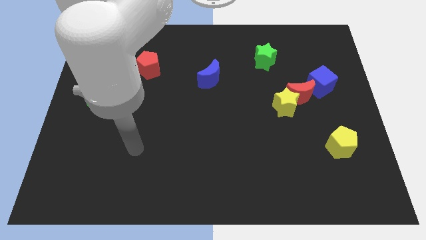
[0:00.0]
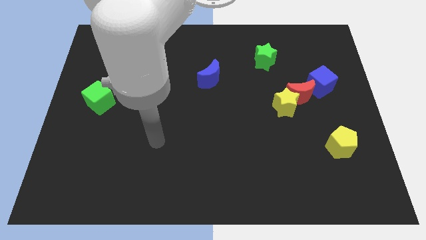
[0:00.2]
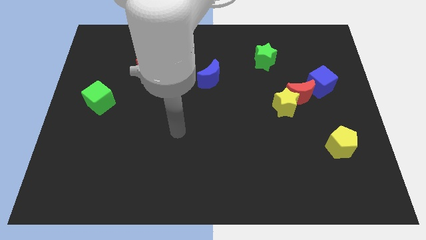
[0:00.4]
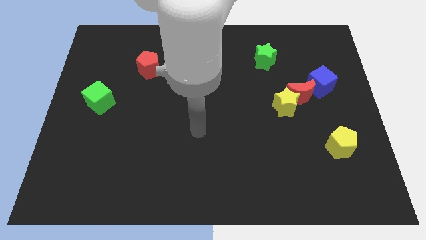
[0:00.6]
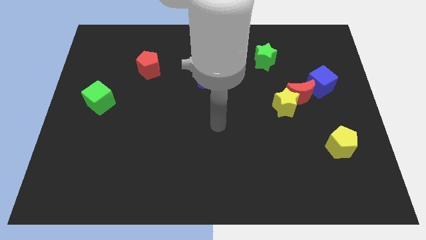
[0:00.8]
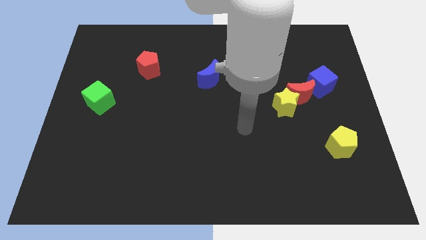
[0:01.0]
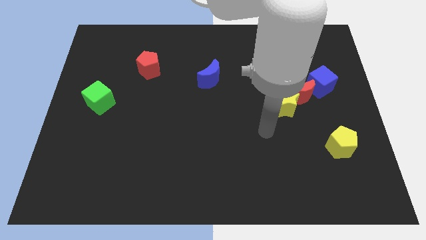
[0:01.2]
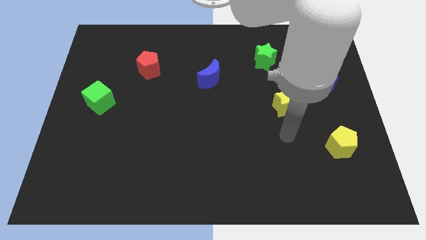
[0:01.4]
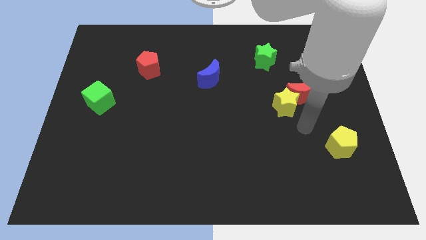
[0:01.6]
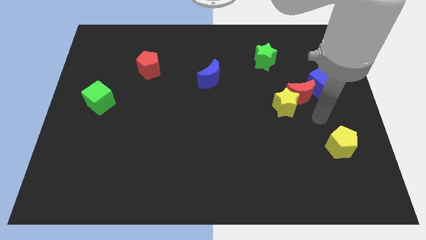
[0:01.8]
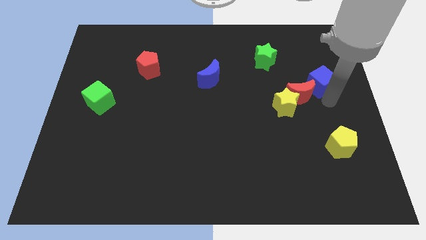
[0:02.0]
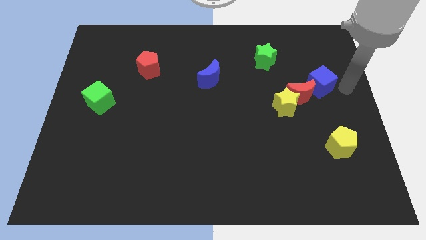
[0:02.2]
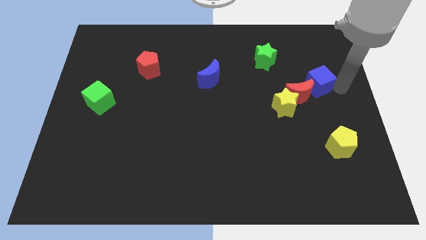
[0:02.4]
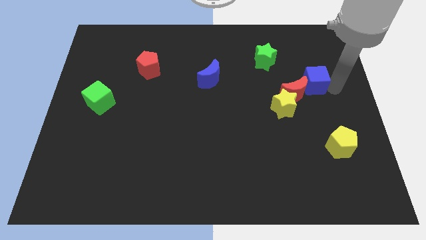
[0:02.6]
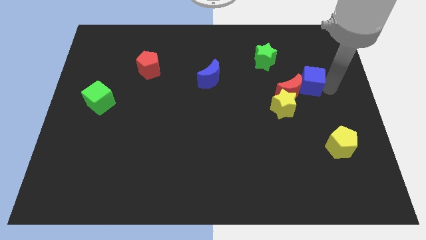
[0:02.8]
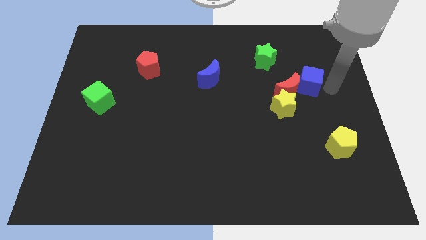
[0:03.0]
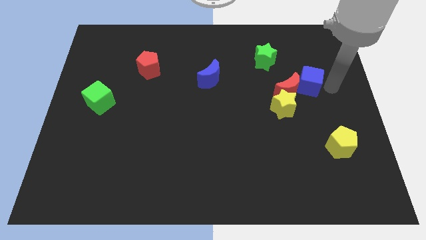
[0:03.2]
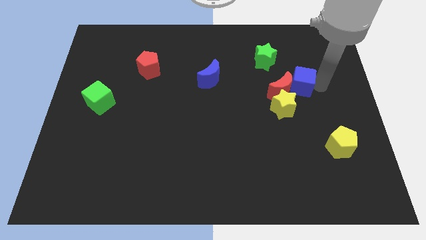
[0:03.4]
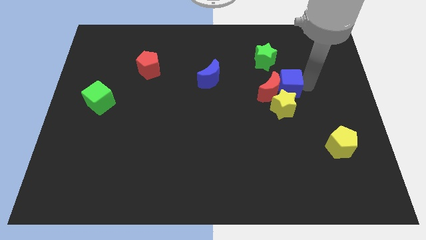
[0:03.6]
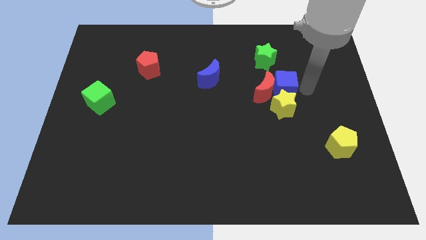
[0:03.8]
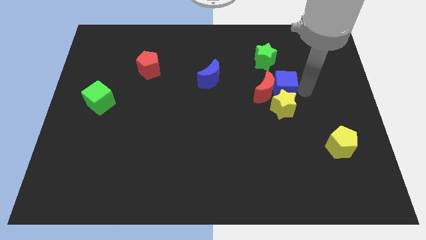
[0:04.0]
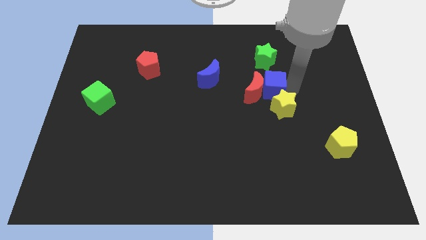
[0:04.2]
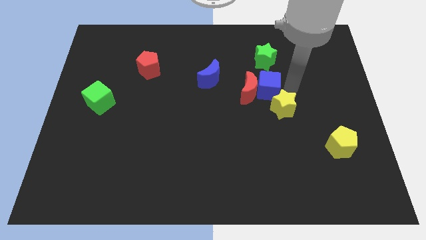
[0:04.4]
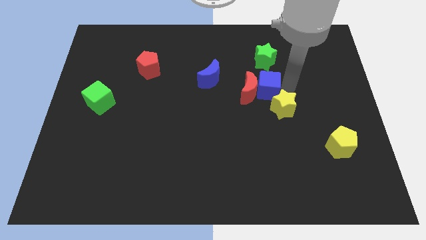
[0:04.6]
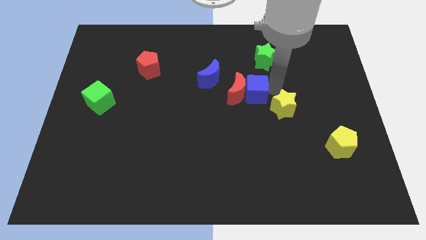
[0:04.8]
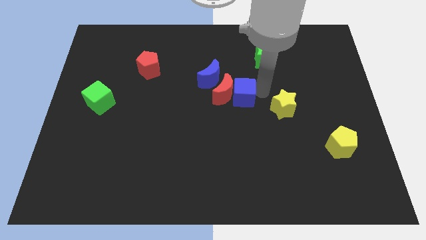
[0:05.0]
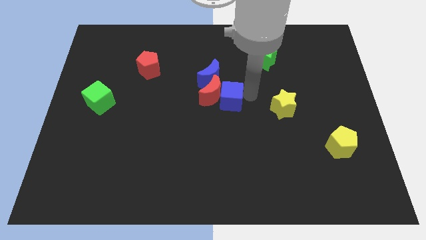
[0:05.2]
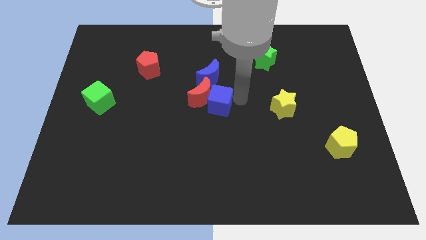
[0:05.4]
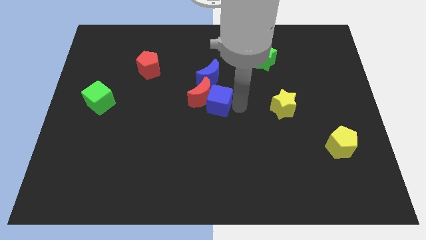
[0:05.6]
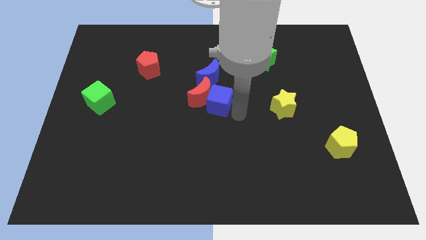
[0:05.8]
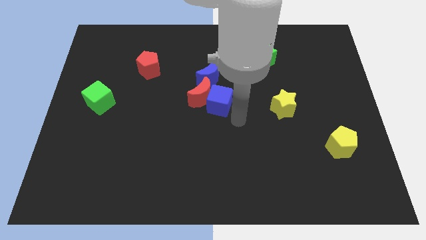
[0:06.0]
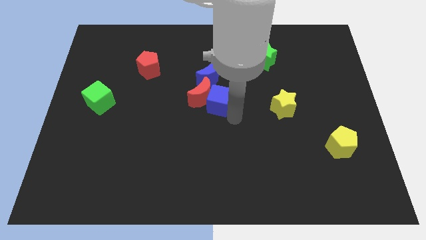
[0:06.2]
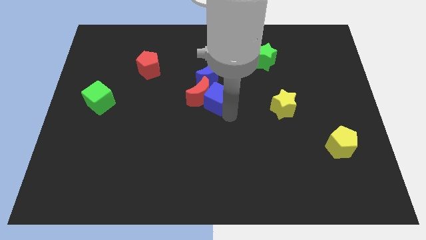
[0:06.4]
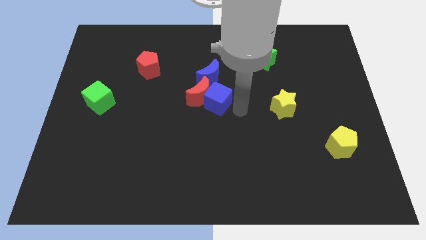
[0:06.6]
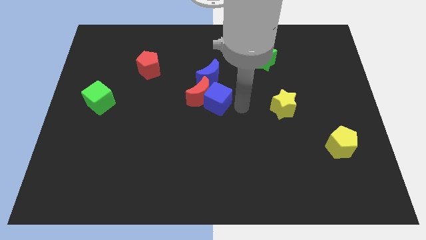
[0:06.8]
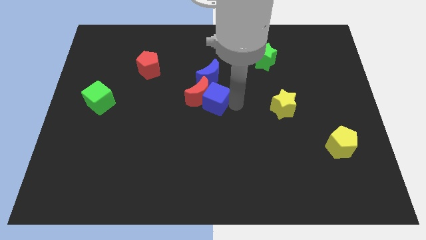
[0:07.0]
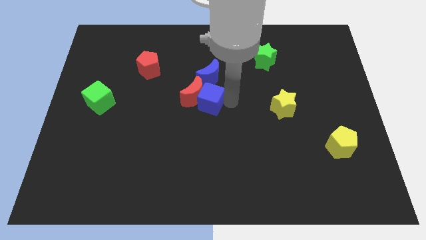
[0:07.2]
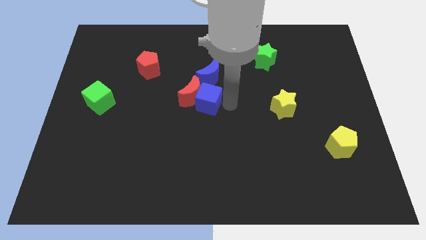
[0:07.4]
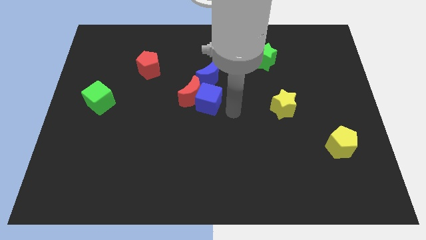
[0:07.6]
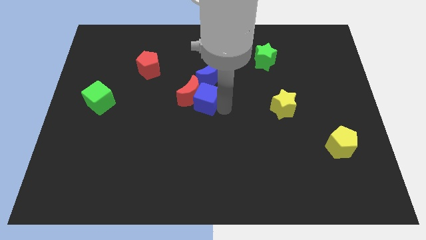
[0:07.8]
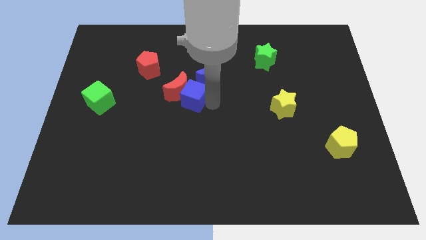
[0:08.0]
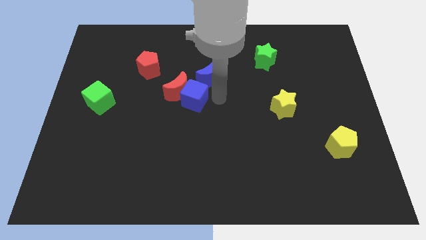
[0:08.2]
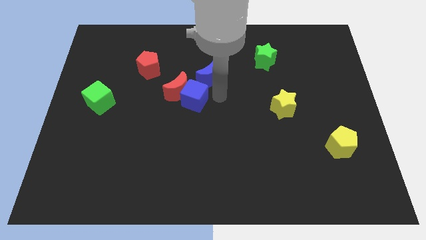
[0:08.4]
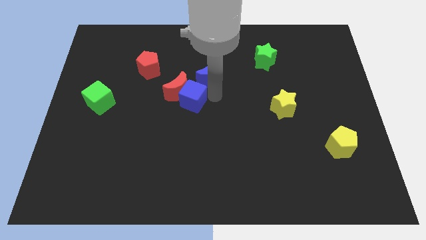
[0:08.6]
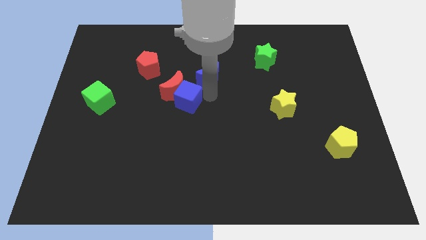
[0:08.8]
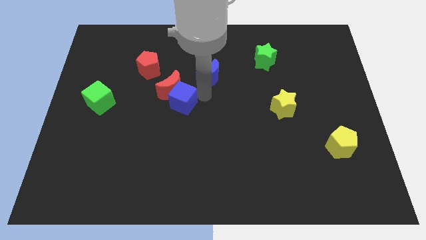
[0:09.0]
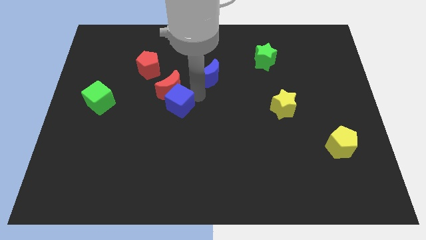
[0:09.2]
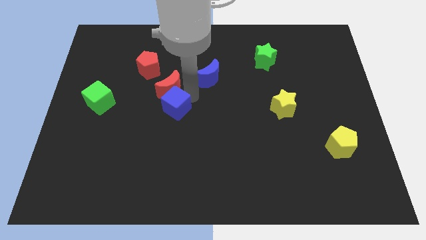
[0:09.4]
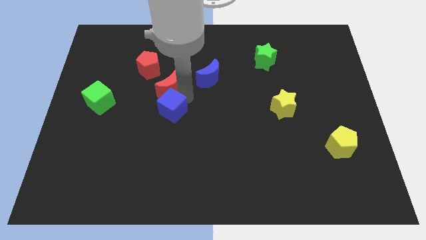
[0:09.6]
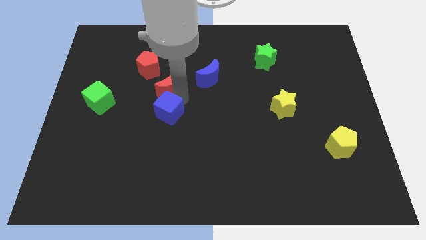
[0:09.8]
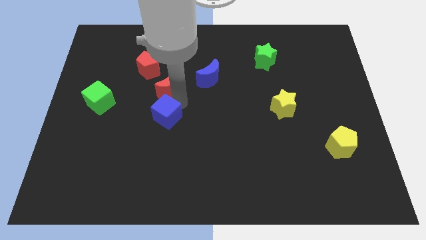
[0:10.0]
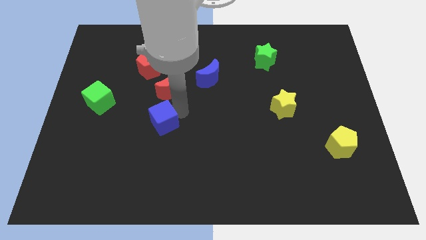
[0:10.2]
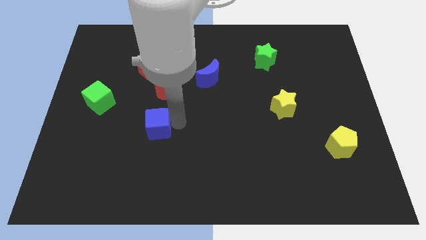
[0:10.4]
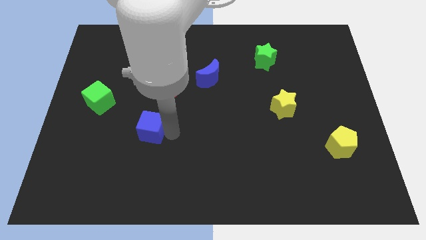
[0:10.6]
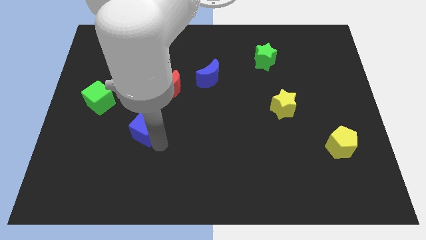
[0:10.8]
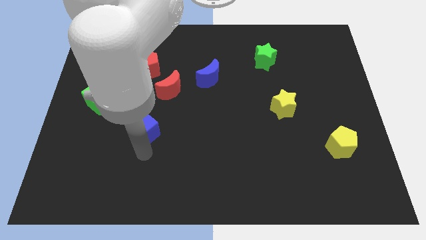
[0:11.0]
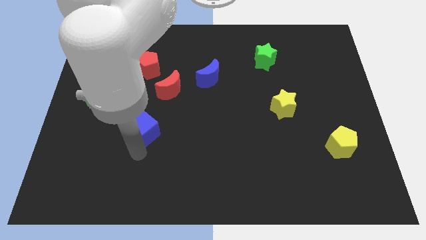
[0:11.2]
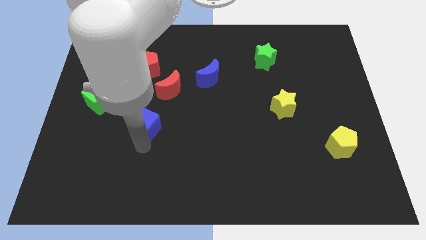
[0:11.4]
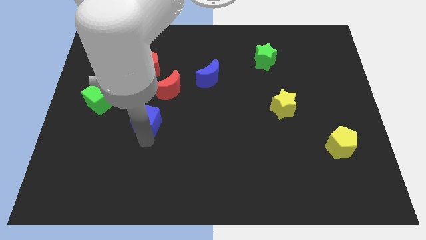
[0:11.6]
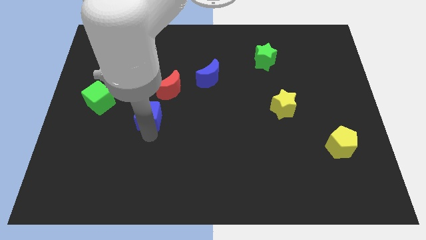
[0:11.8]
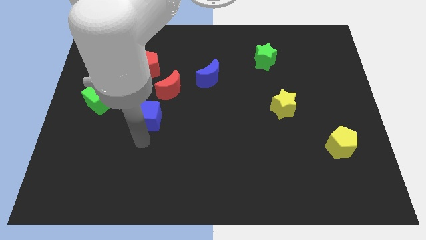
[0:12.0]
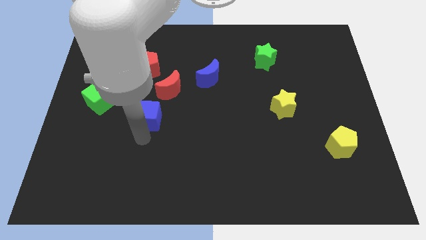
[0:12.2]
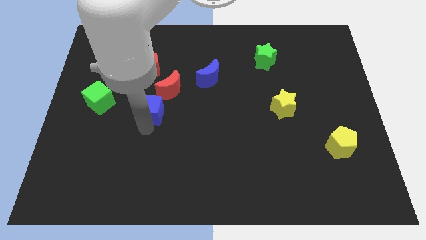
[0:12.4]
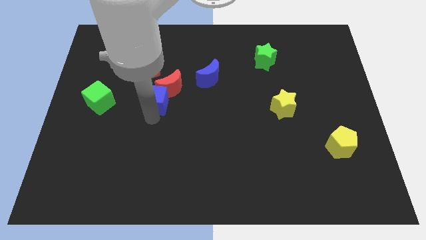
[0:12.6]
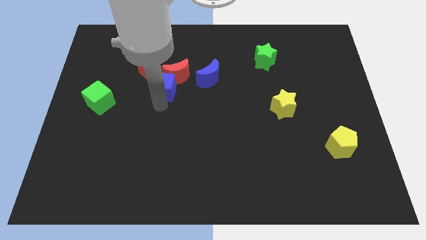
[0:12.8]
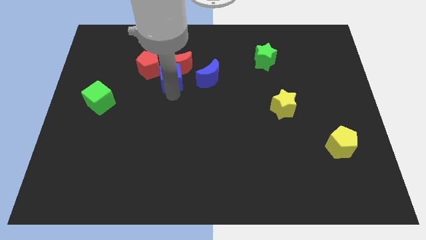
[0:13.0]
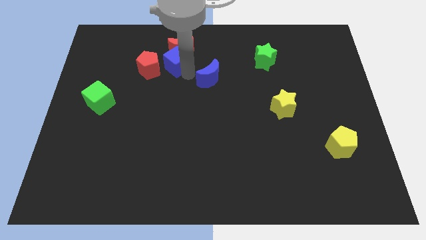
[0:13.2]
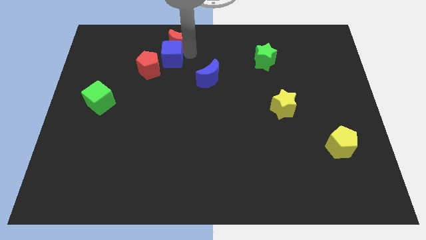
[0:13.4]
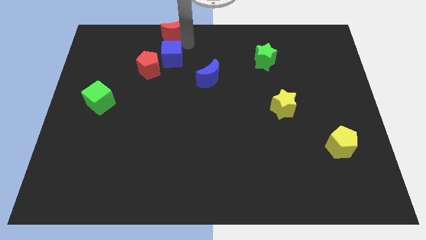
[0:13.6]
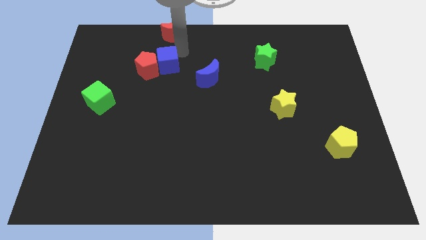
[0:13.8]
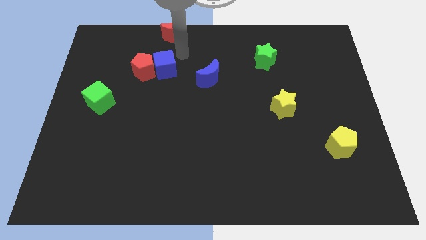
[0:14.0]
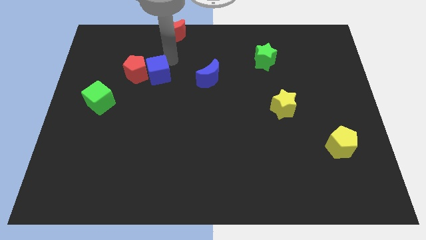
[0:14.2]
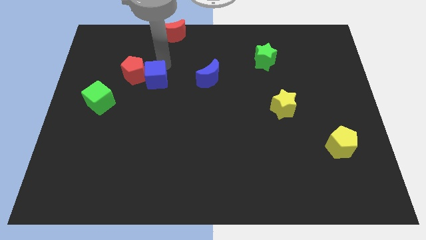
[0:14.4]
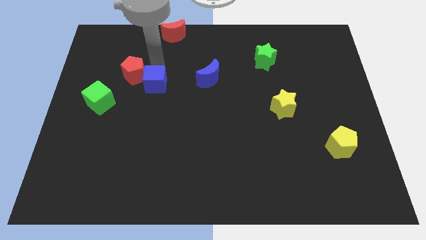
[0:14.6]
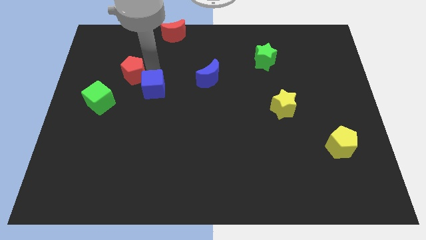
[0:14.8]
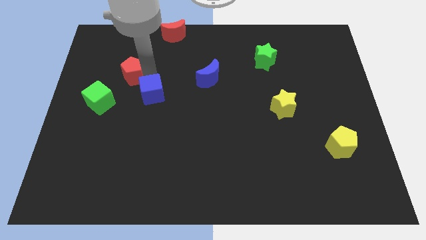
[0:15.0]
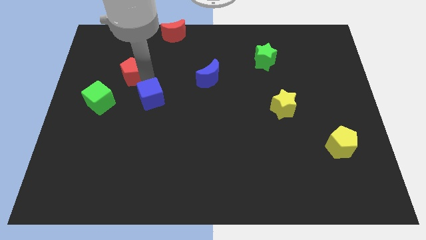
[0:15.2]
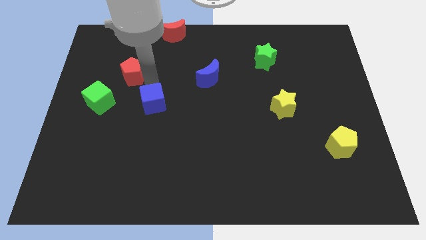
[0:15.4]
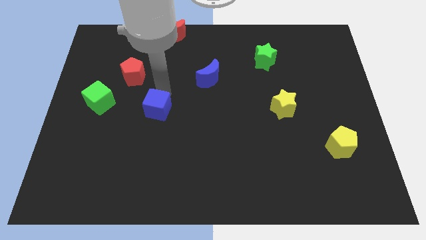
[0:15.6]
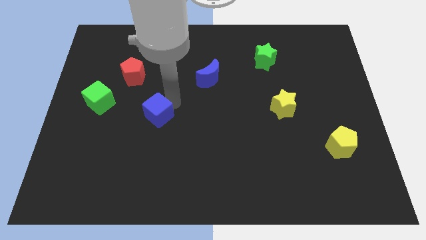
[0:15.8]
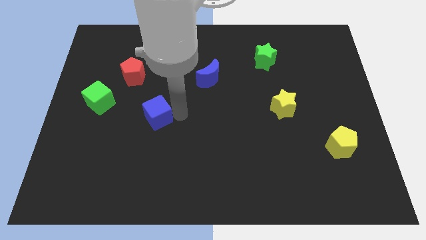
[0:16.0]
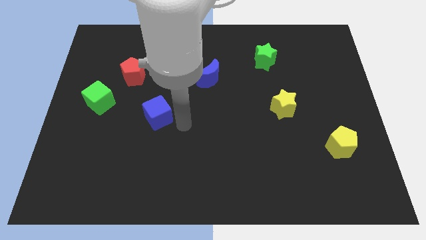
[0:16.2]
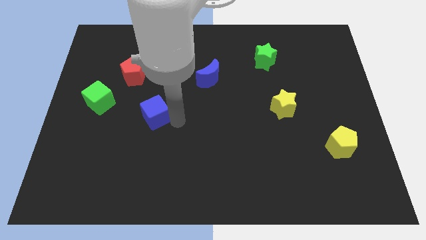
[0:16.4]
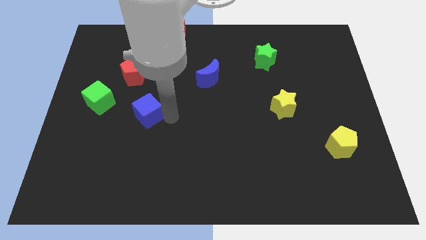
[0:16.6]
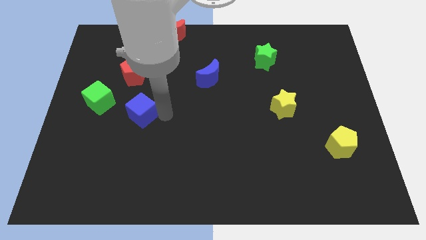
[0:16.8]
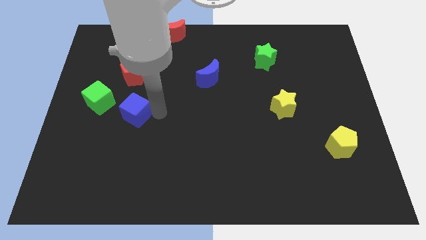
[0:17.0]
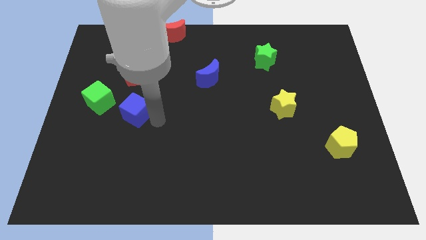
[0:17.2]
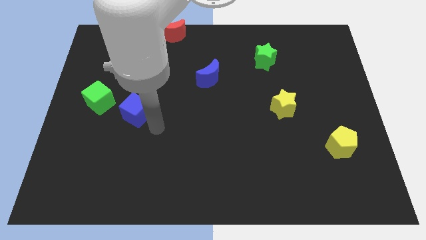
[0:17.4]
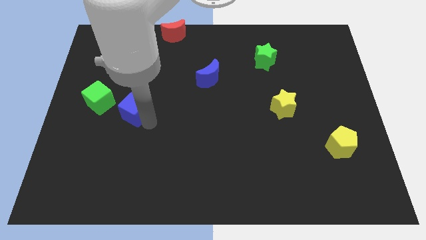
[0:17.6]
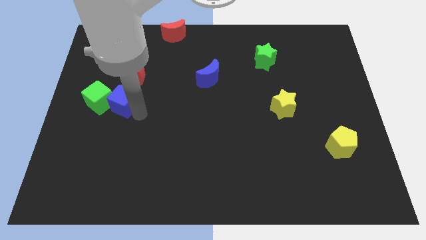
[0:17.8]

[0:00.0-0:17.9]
put the blue cube close to the green cube
